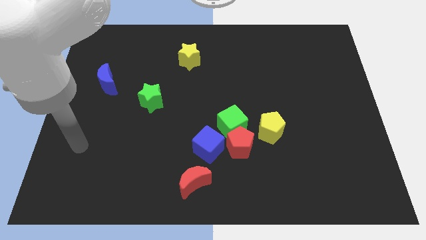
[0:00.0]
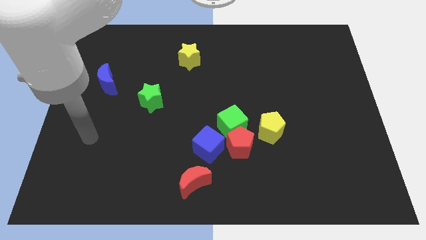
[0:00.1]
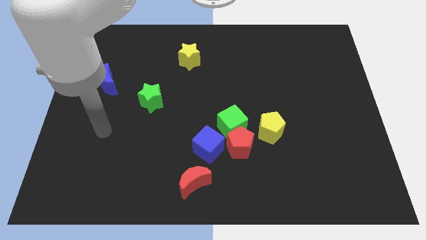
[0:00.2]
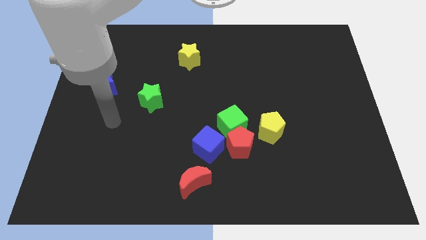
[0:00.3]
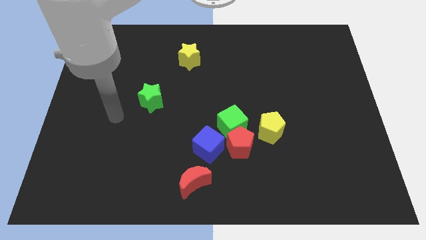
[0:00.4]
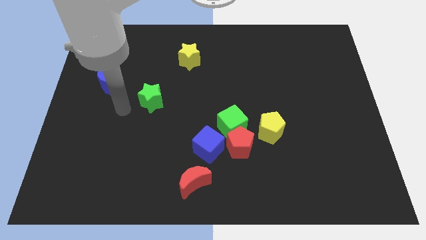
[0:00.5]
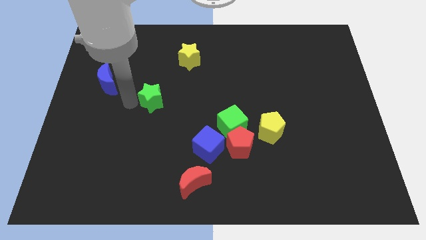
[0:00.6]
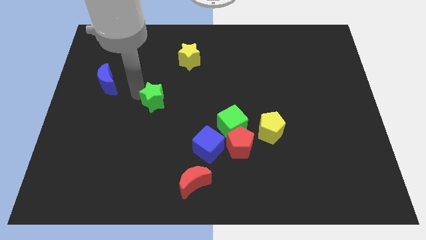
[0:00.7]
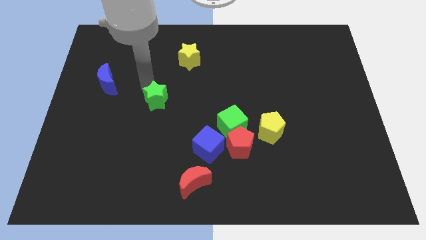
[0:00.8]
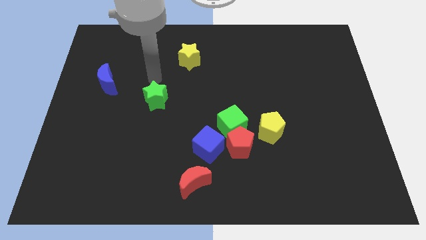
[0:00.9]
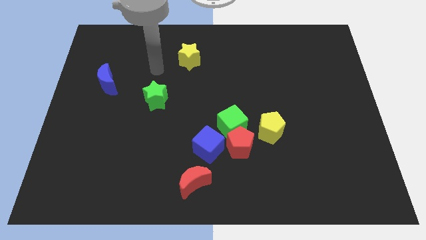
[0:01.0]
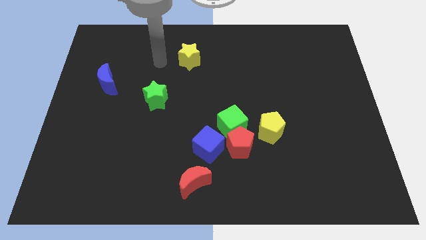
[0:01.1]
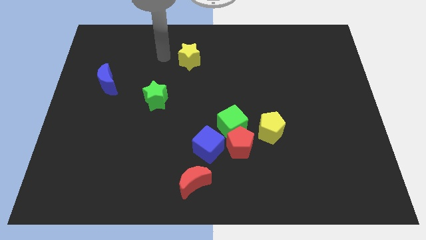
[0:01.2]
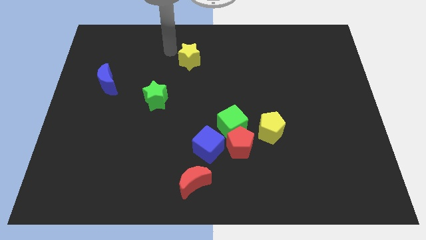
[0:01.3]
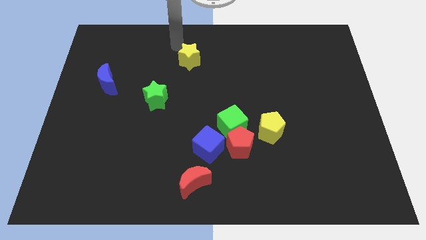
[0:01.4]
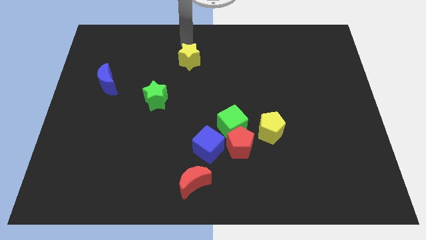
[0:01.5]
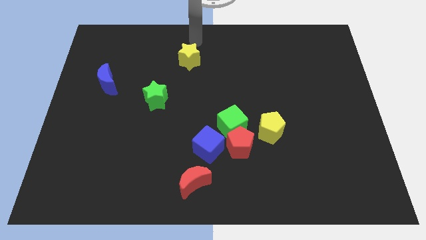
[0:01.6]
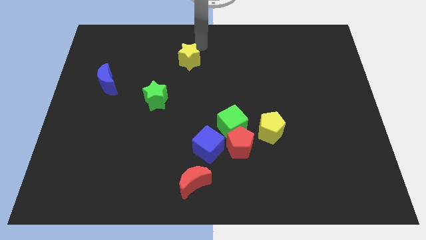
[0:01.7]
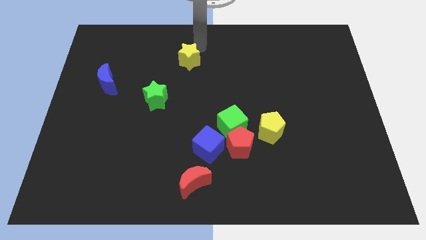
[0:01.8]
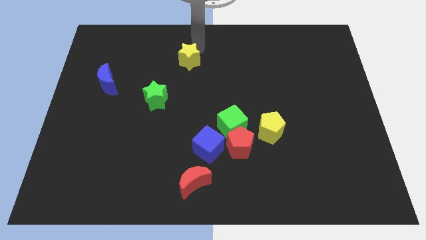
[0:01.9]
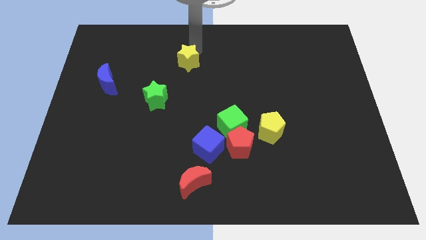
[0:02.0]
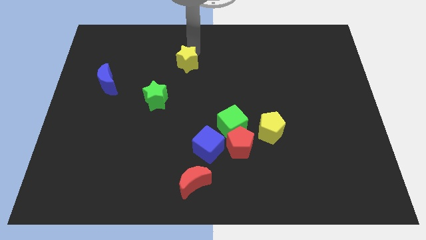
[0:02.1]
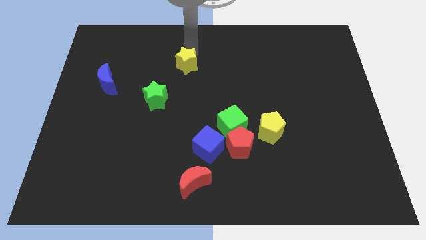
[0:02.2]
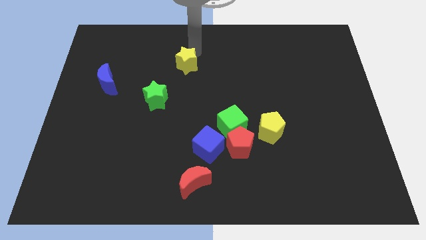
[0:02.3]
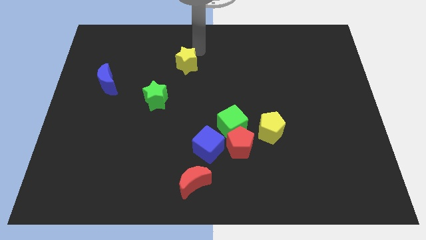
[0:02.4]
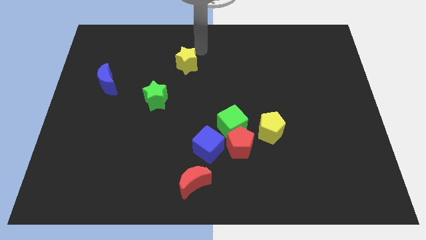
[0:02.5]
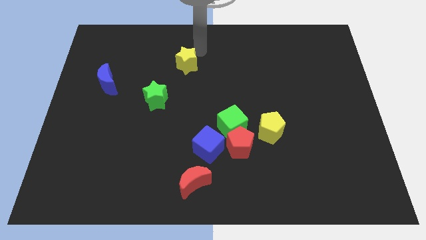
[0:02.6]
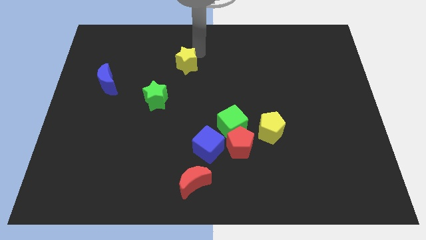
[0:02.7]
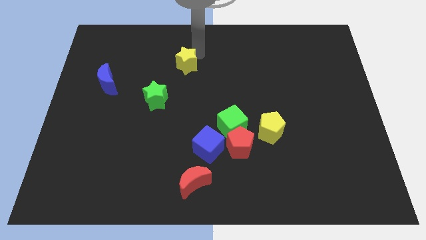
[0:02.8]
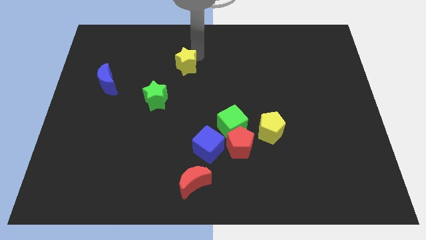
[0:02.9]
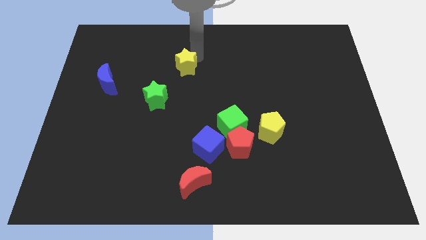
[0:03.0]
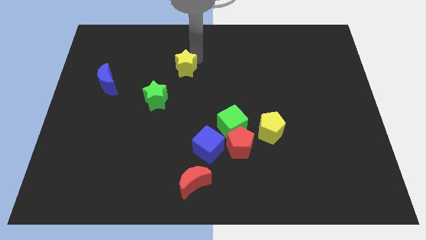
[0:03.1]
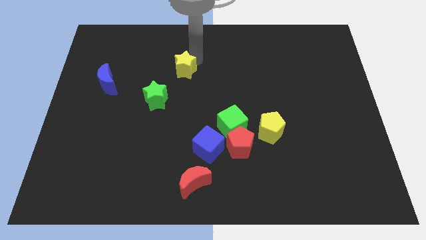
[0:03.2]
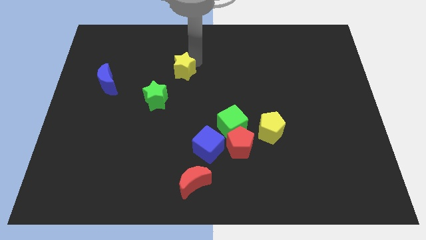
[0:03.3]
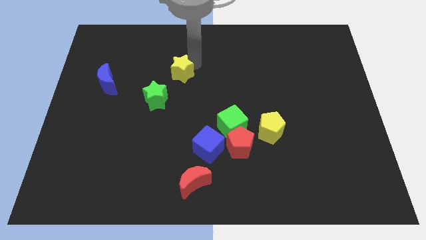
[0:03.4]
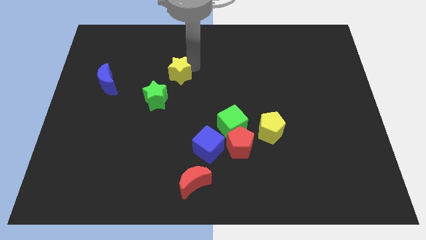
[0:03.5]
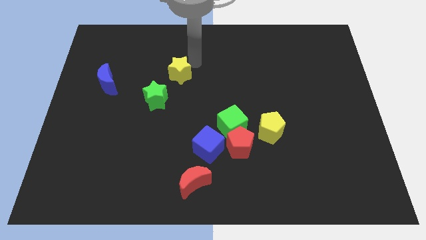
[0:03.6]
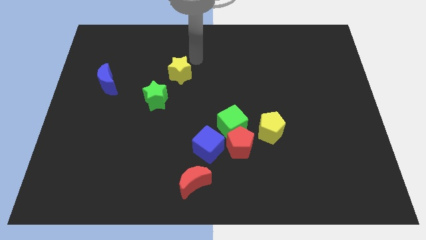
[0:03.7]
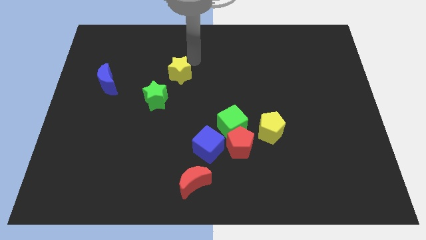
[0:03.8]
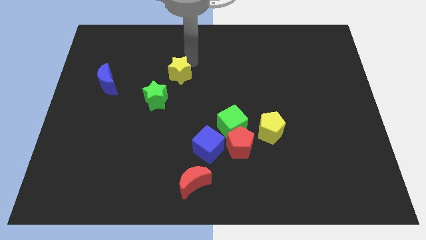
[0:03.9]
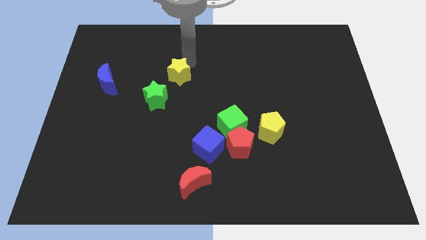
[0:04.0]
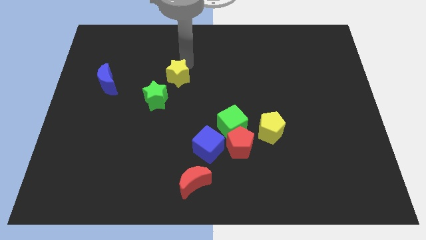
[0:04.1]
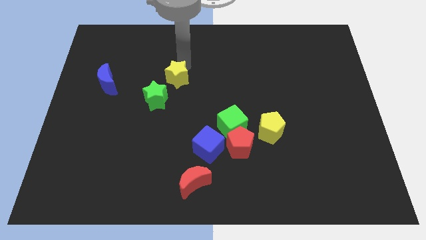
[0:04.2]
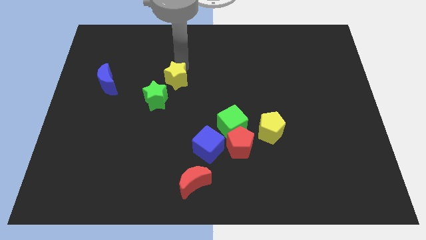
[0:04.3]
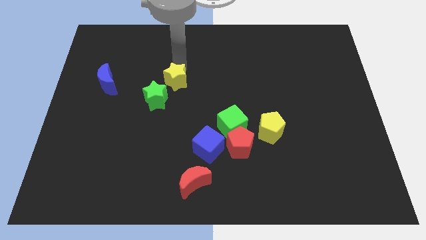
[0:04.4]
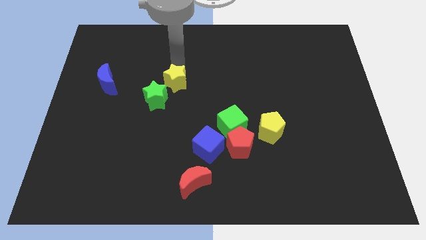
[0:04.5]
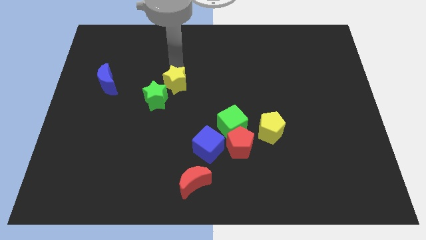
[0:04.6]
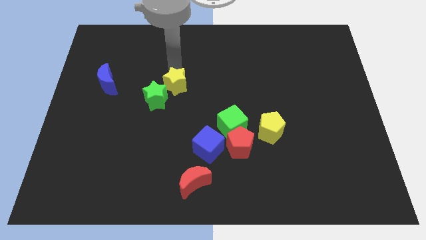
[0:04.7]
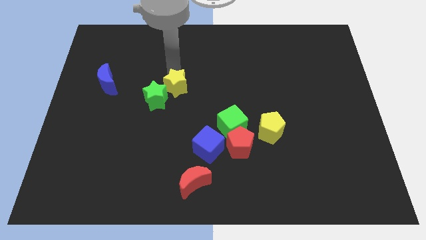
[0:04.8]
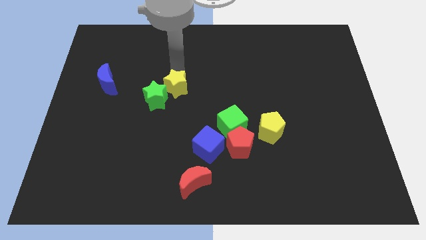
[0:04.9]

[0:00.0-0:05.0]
push the yellow star towards the green star

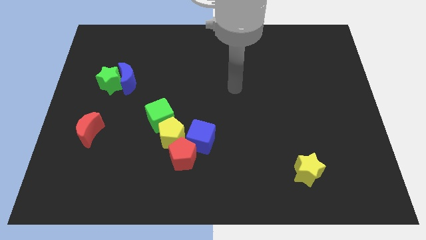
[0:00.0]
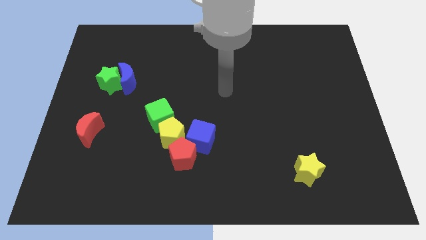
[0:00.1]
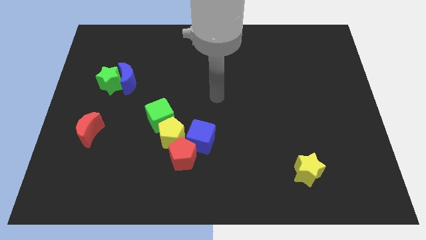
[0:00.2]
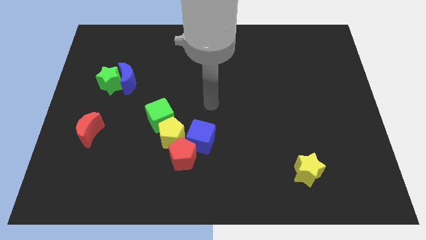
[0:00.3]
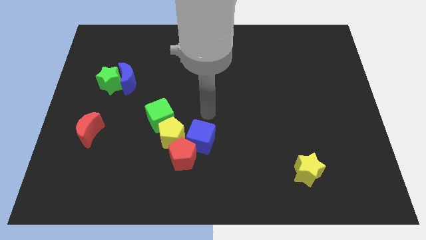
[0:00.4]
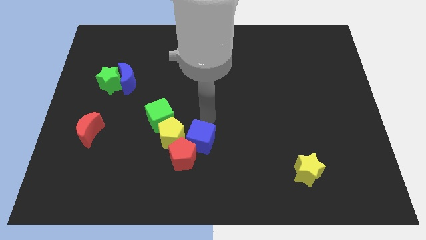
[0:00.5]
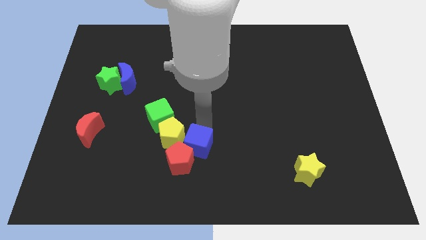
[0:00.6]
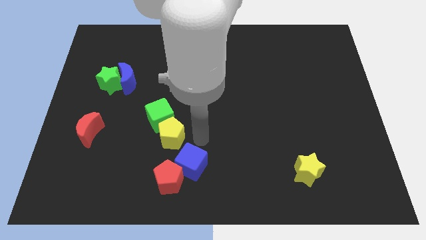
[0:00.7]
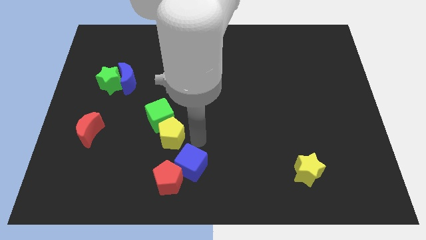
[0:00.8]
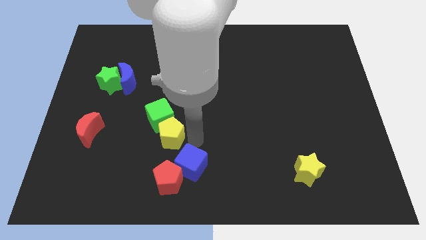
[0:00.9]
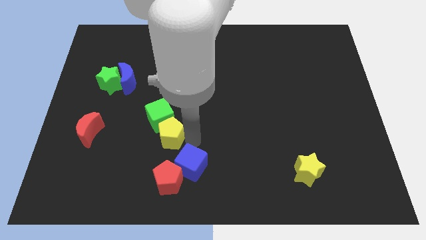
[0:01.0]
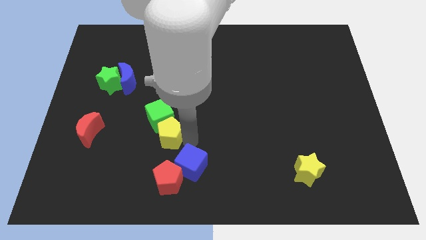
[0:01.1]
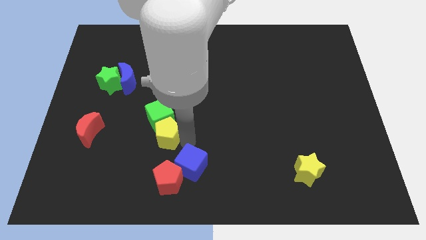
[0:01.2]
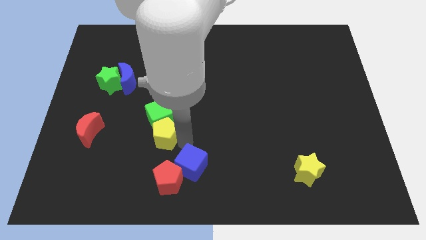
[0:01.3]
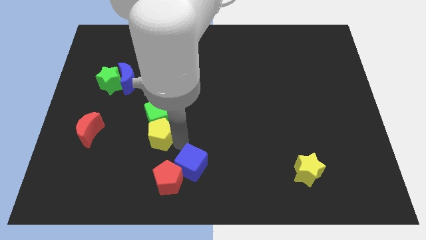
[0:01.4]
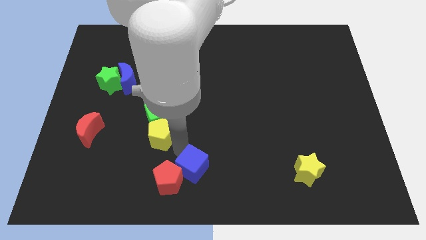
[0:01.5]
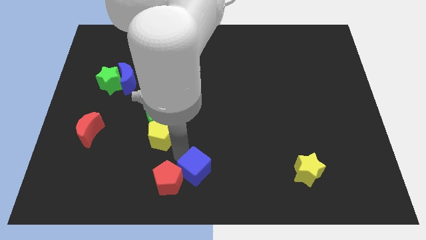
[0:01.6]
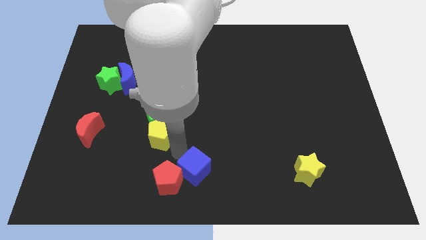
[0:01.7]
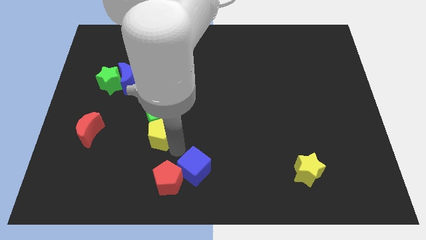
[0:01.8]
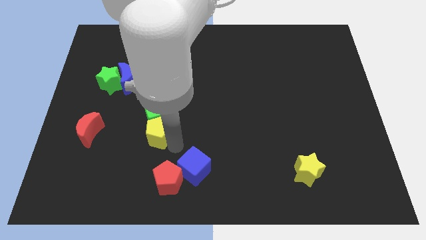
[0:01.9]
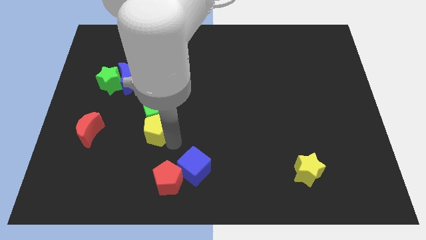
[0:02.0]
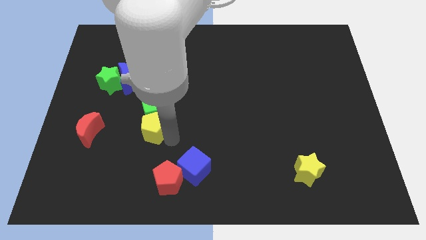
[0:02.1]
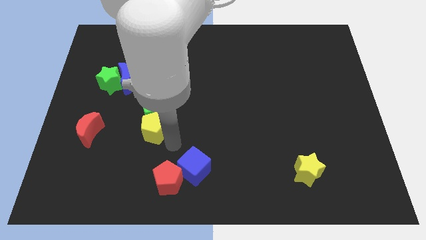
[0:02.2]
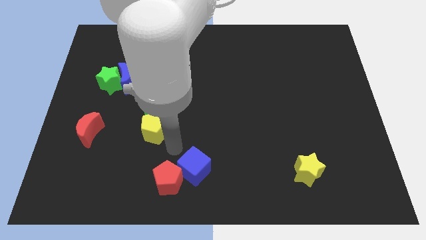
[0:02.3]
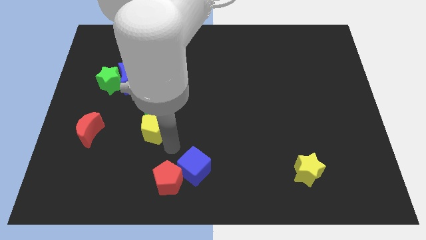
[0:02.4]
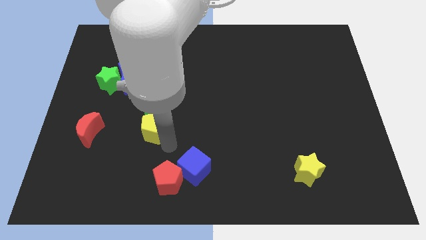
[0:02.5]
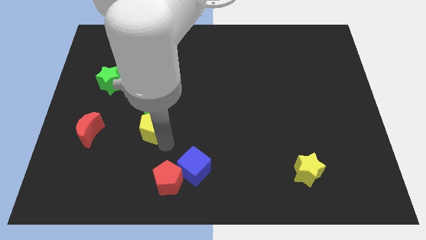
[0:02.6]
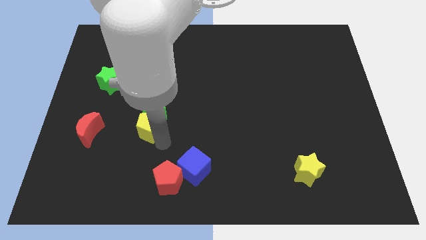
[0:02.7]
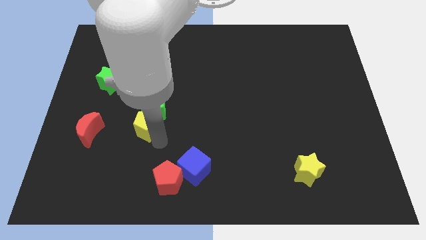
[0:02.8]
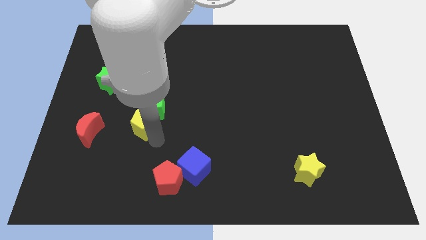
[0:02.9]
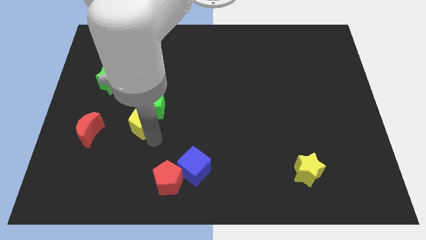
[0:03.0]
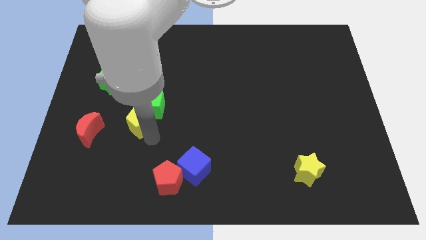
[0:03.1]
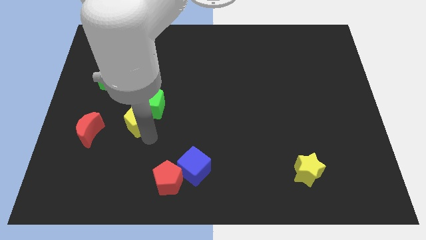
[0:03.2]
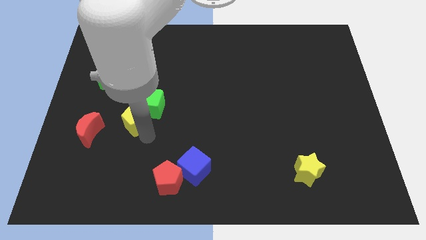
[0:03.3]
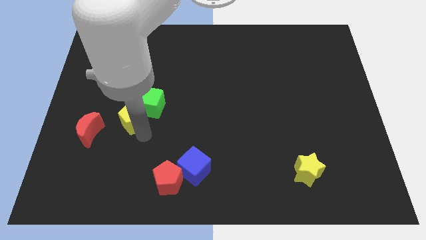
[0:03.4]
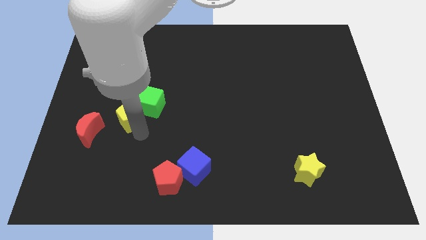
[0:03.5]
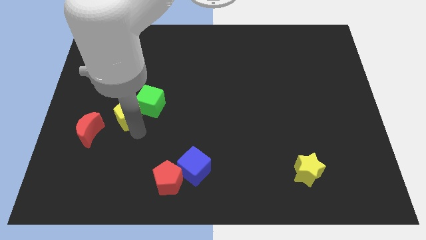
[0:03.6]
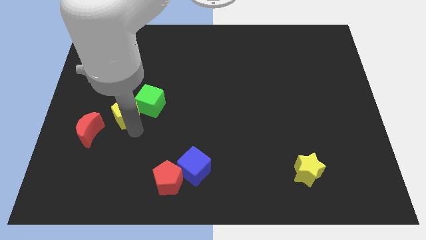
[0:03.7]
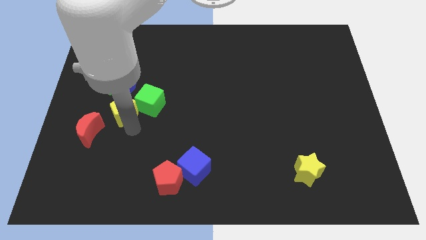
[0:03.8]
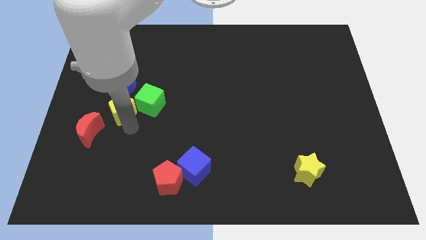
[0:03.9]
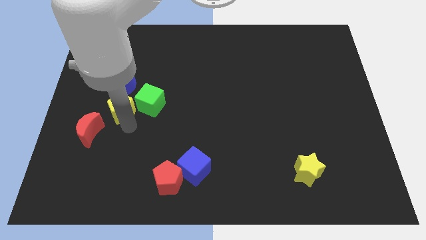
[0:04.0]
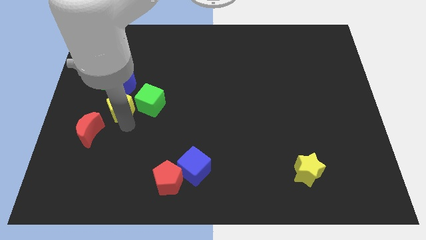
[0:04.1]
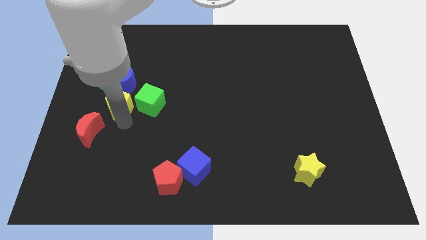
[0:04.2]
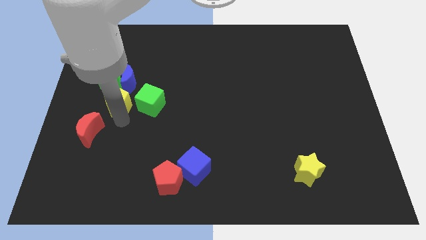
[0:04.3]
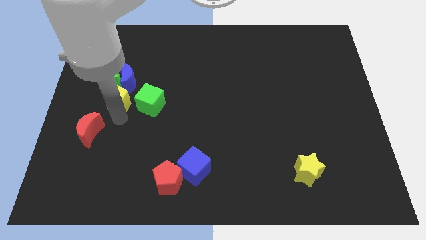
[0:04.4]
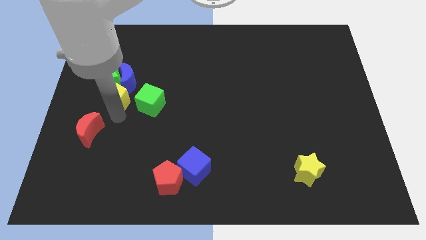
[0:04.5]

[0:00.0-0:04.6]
move the yellow pentagon to the green star
